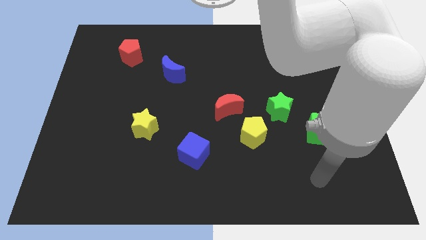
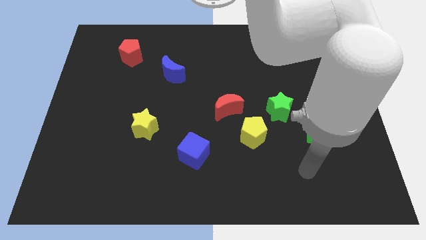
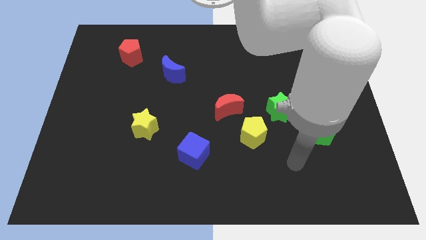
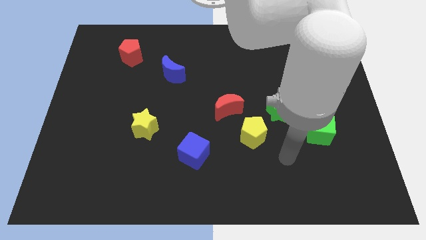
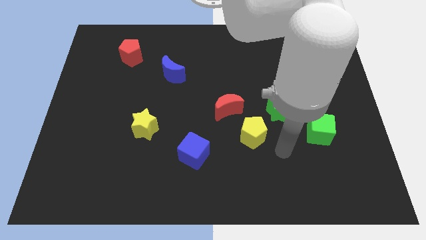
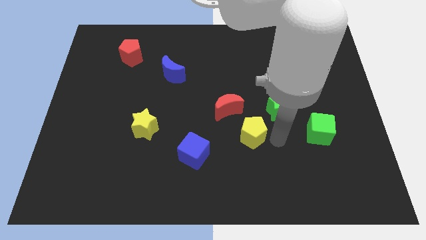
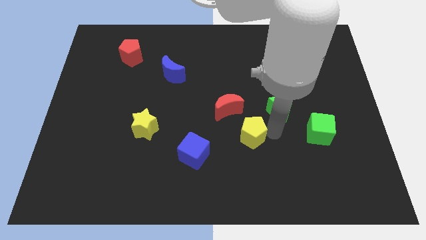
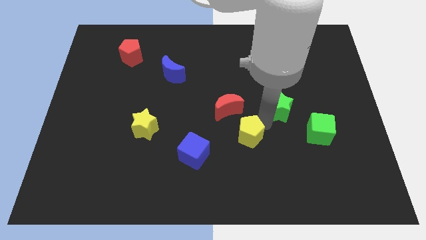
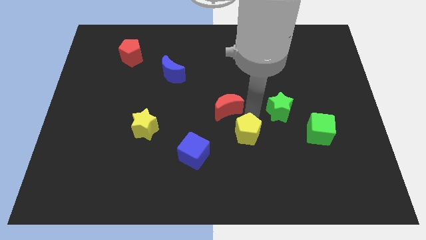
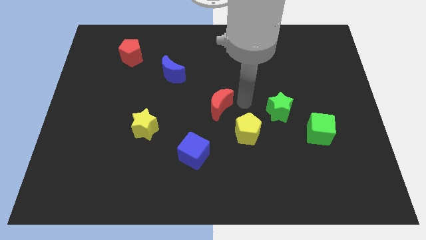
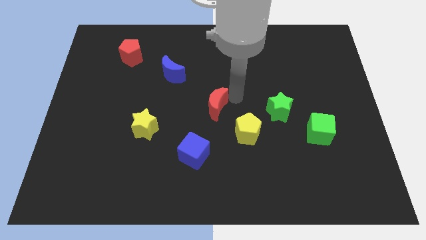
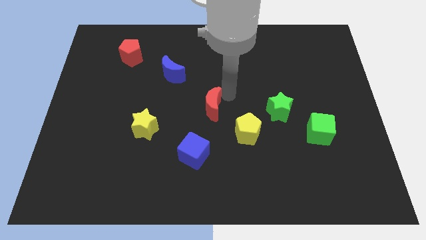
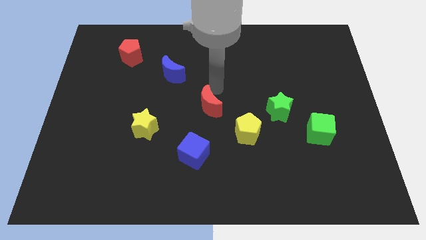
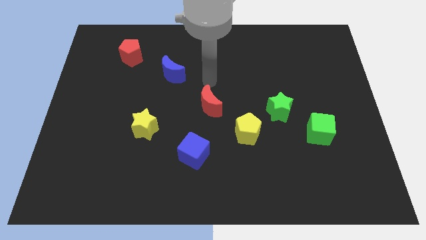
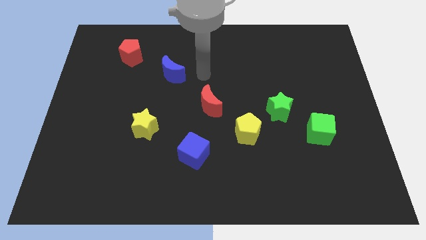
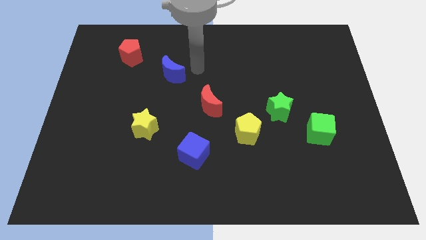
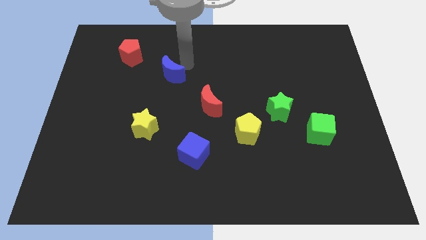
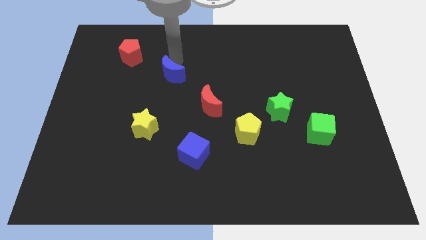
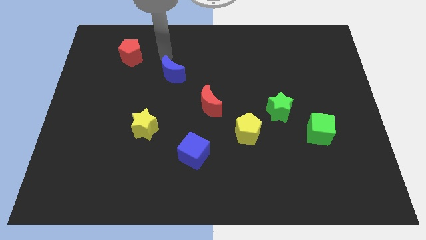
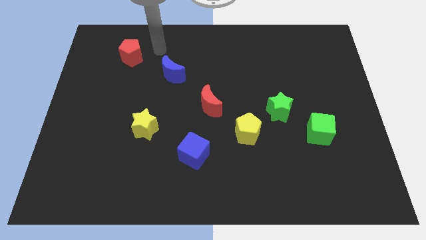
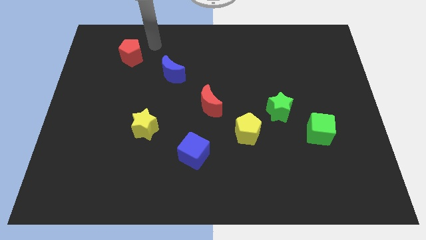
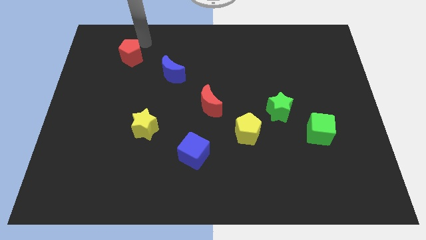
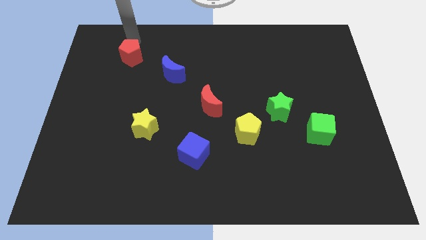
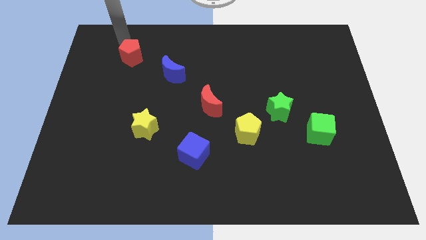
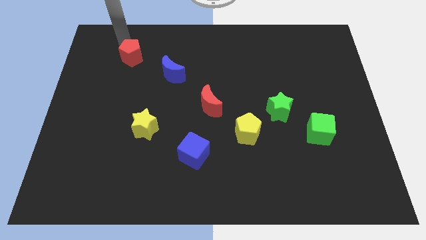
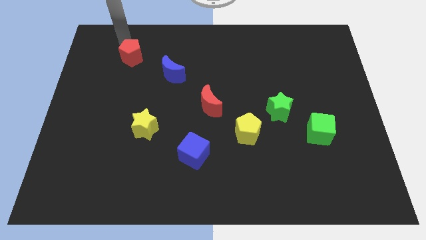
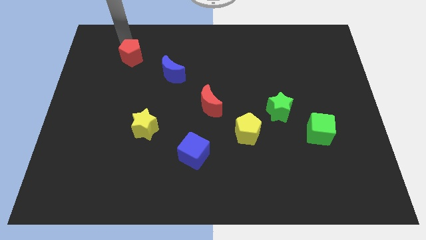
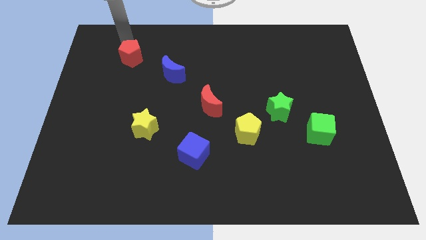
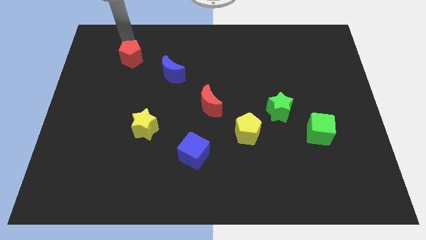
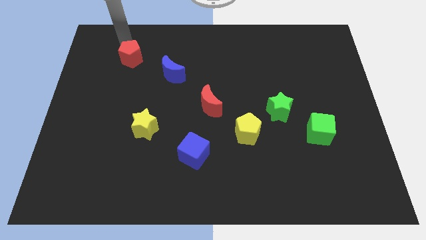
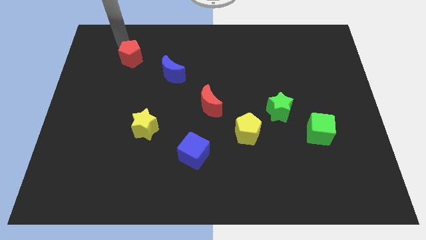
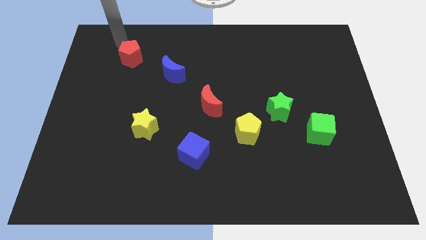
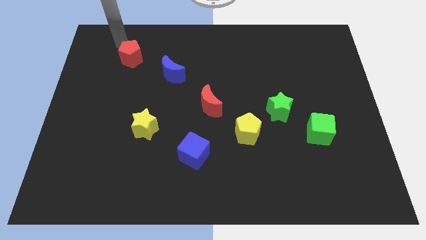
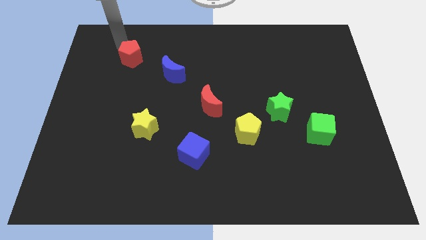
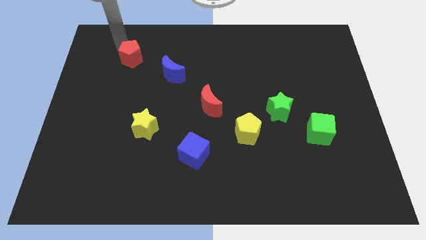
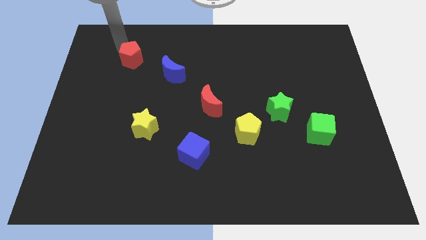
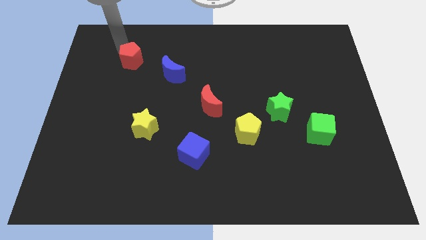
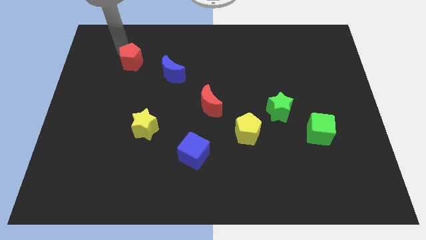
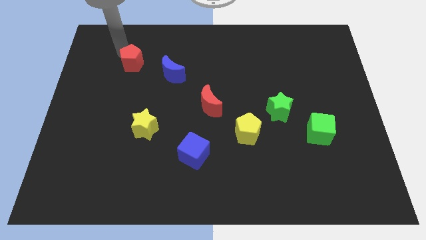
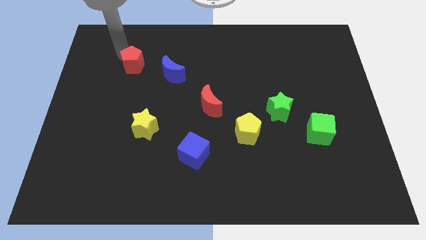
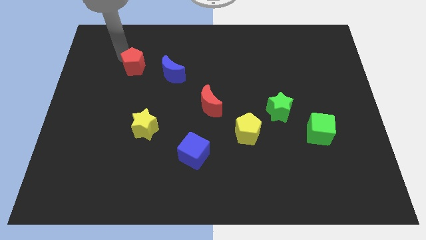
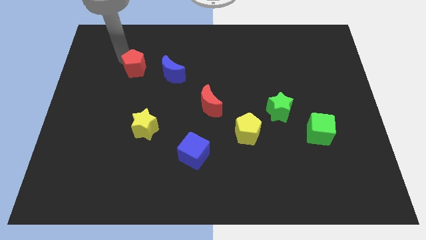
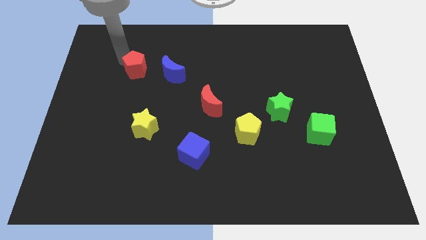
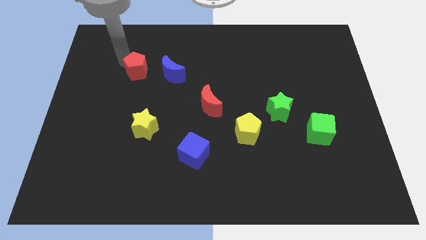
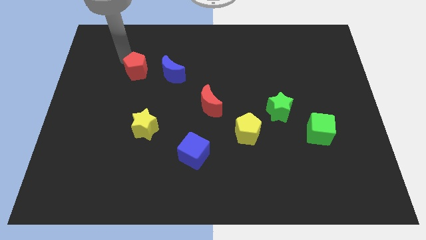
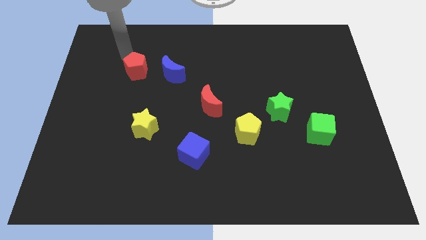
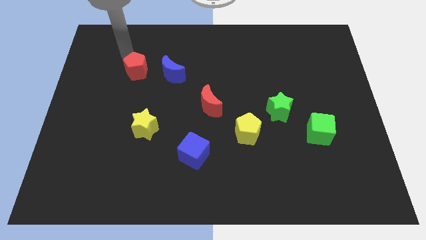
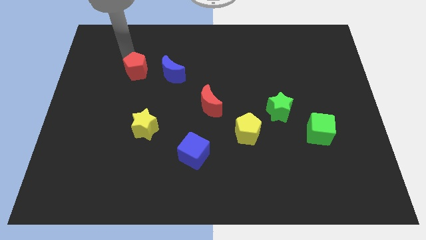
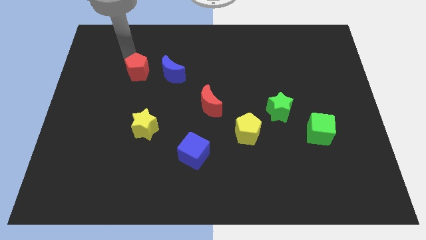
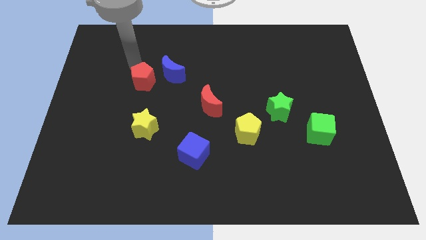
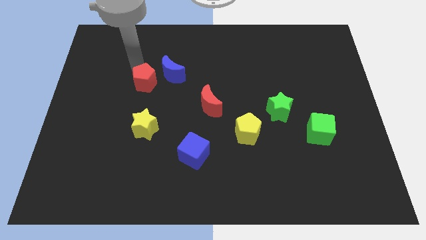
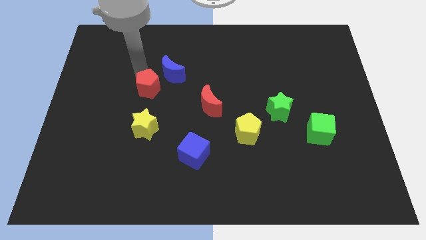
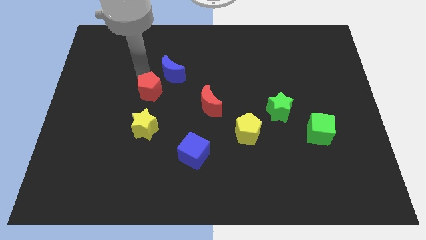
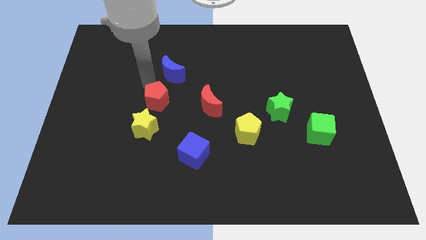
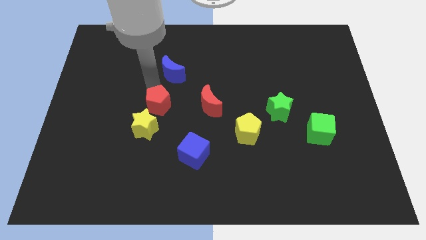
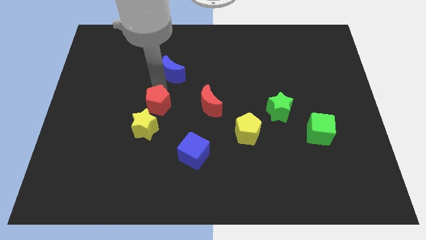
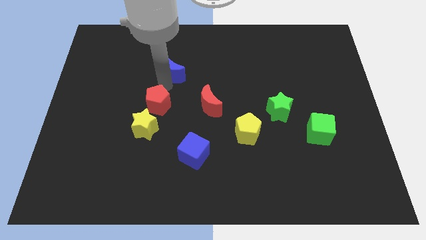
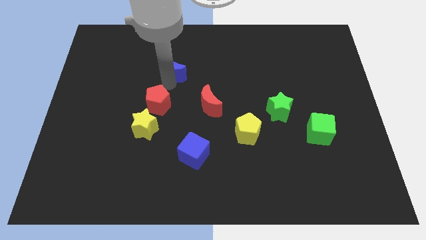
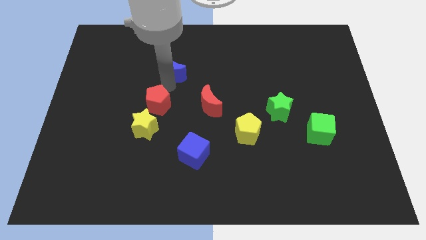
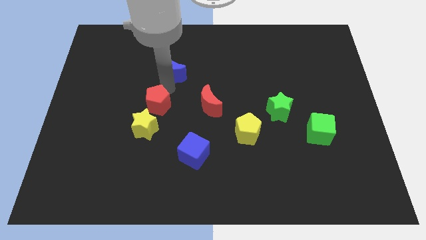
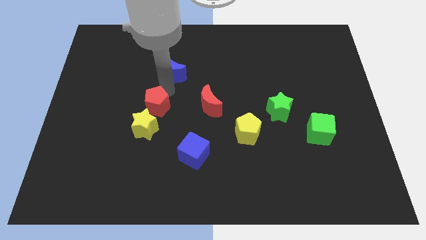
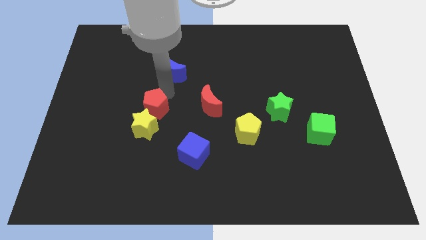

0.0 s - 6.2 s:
put the red pentagon to the yellow star

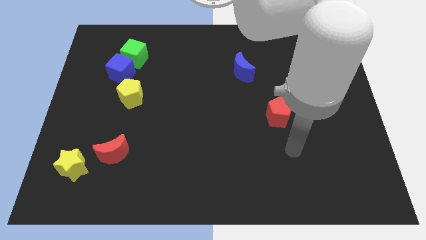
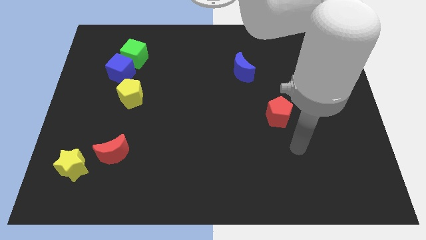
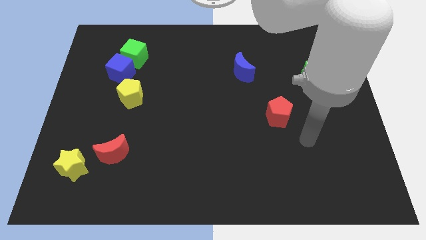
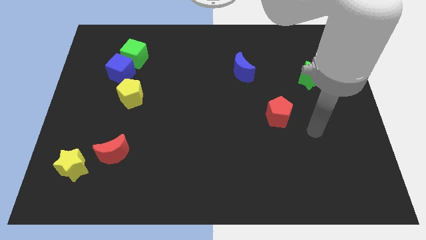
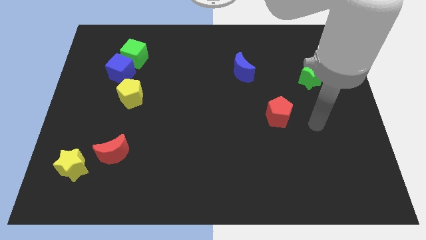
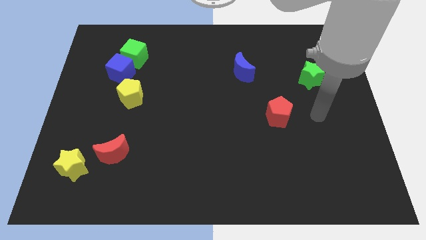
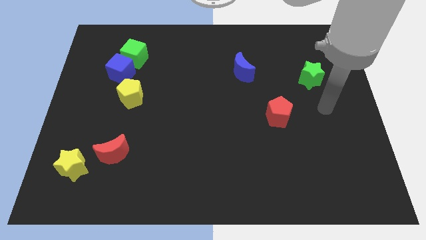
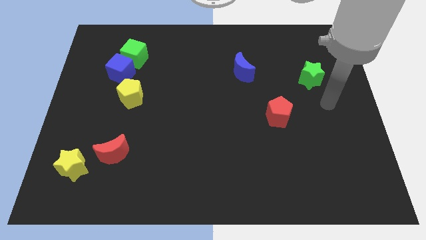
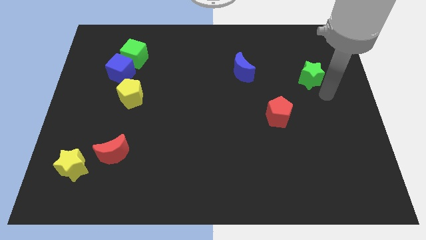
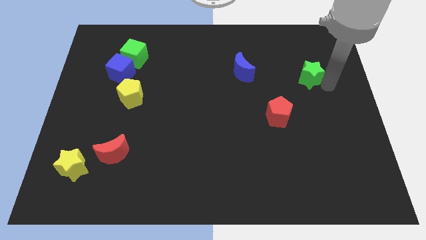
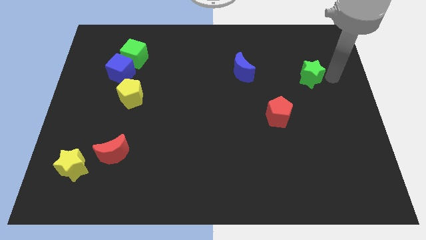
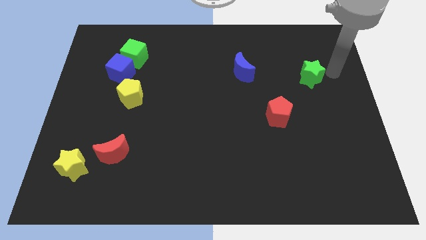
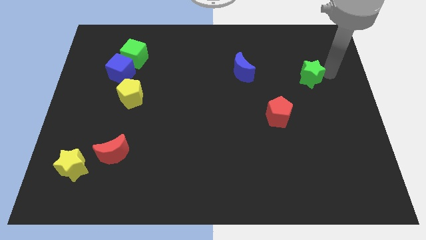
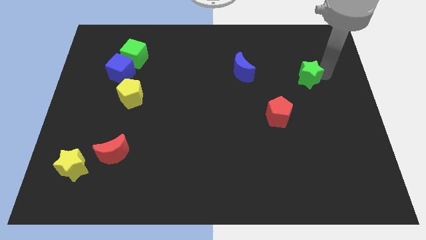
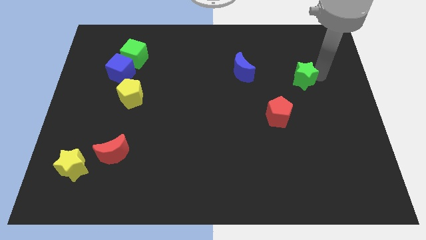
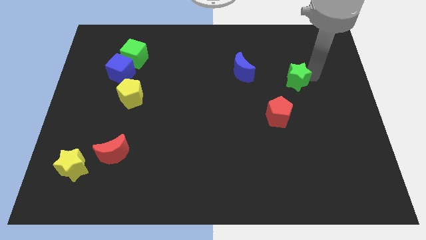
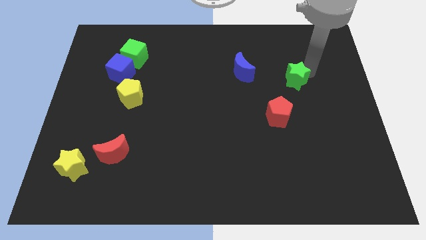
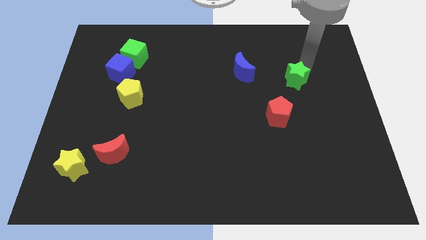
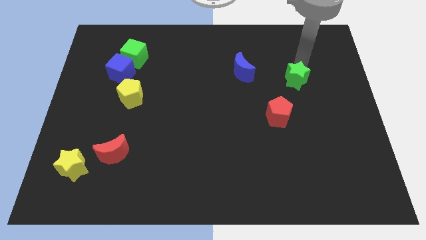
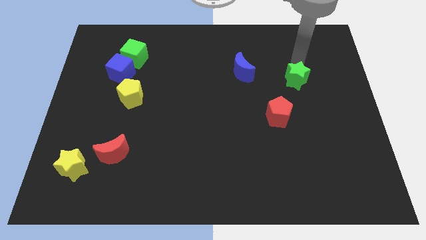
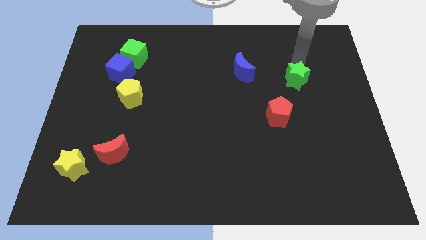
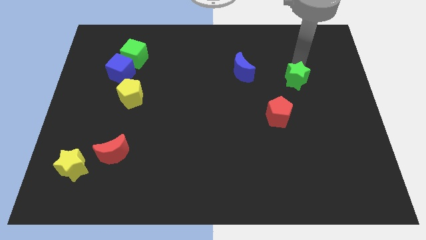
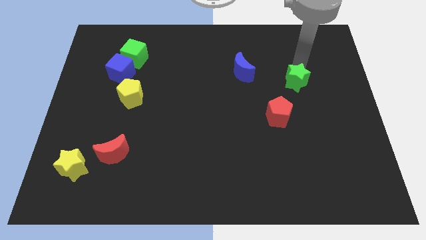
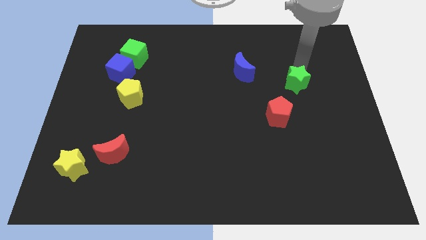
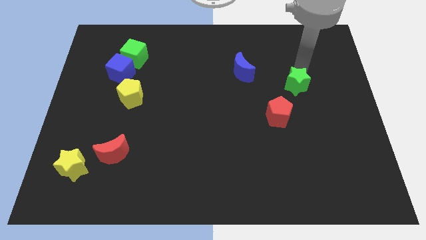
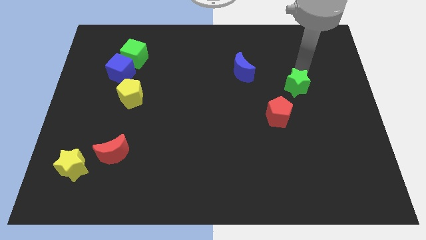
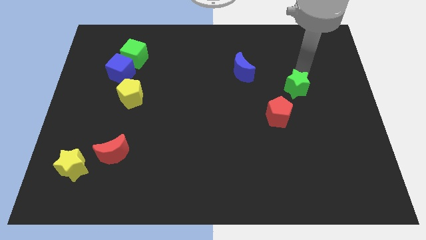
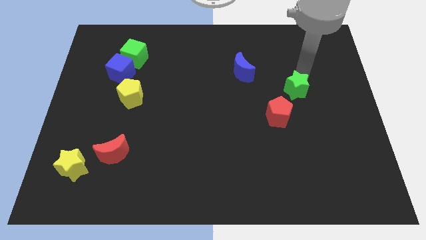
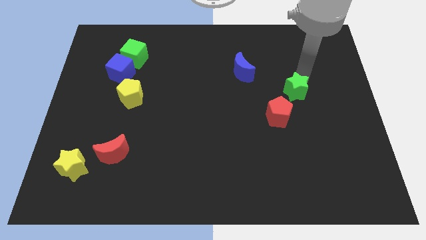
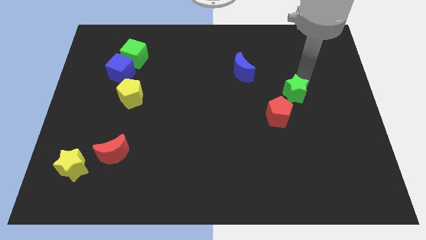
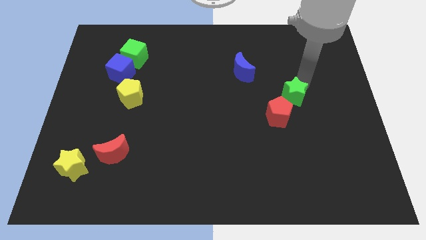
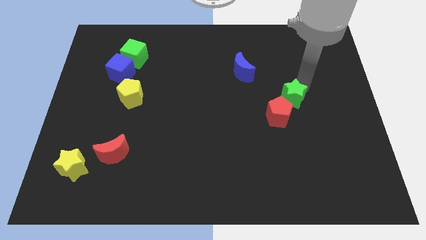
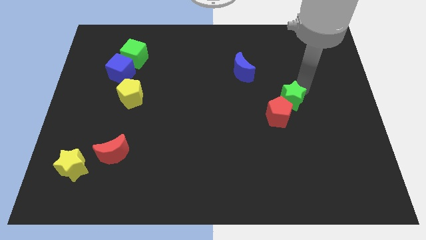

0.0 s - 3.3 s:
slide the green star towards the red pentagon
